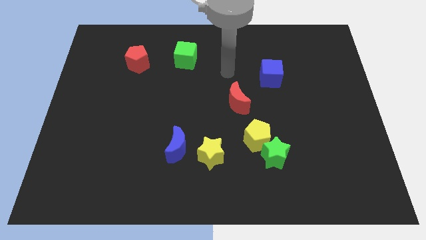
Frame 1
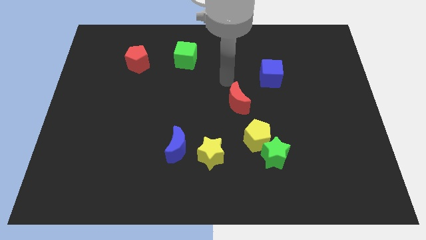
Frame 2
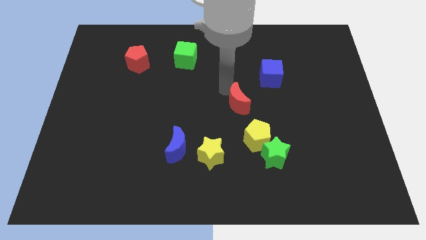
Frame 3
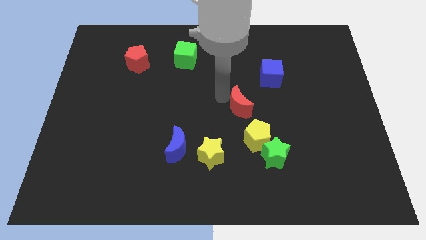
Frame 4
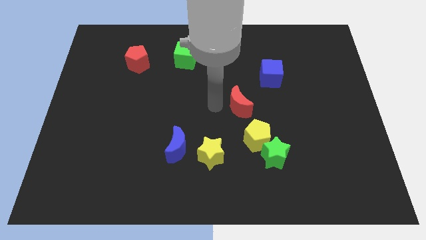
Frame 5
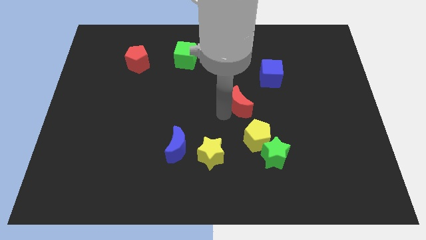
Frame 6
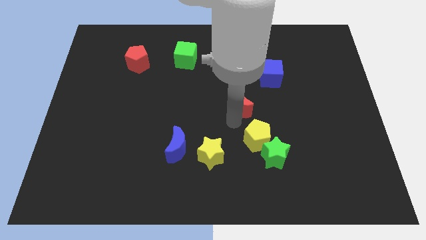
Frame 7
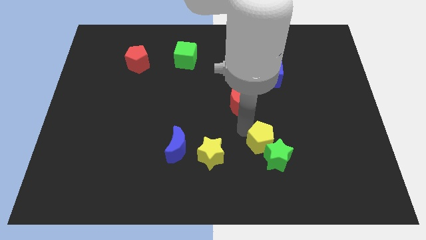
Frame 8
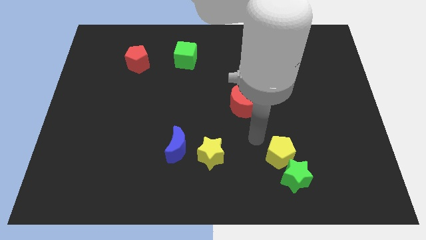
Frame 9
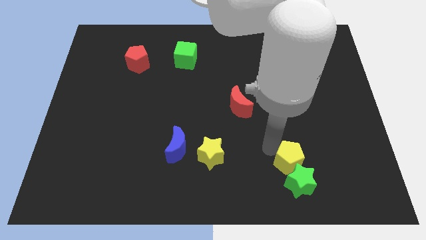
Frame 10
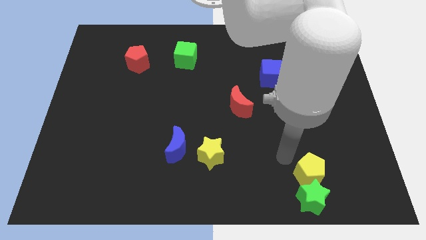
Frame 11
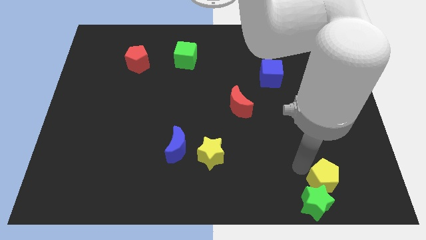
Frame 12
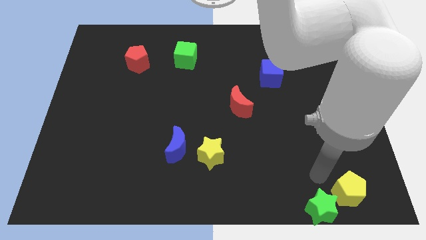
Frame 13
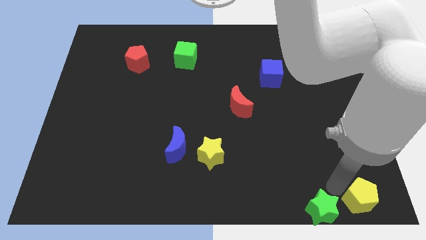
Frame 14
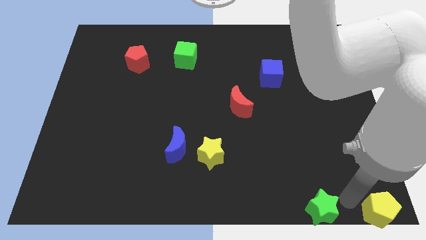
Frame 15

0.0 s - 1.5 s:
move the green star away from the yellow pentagon

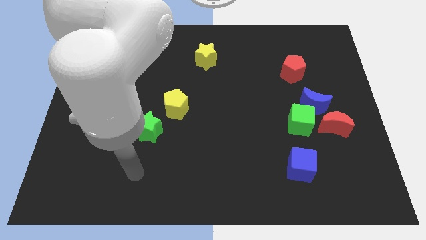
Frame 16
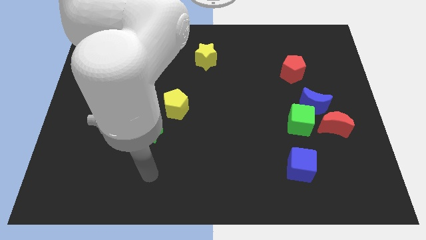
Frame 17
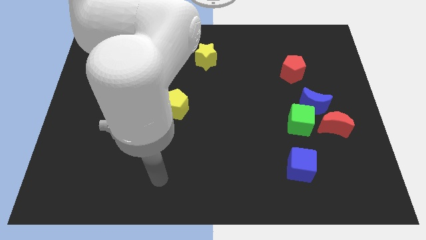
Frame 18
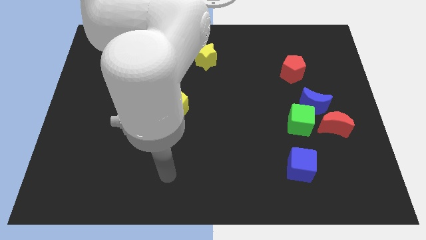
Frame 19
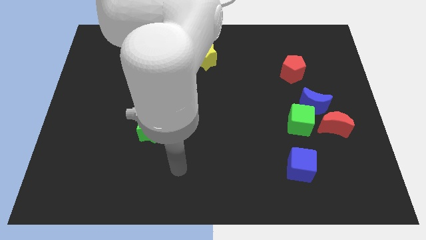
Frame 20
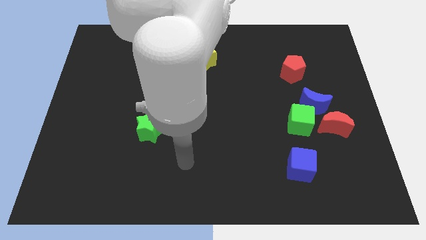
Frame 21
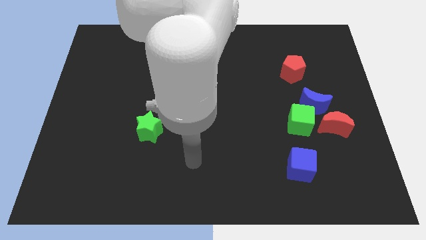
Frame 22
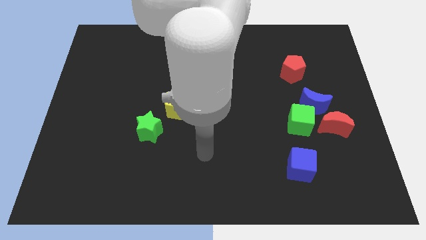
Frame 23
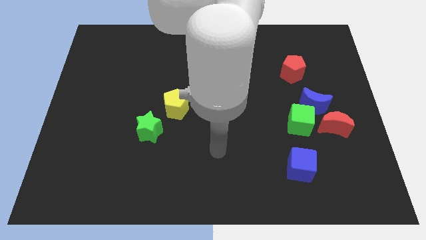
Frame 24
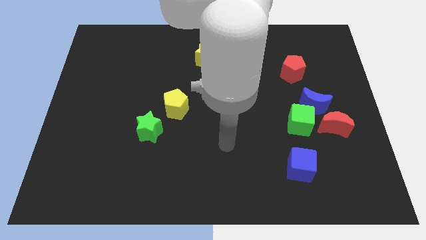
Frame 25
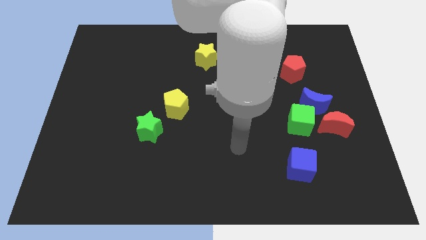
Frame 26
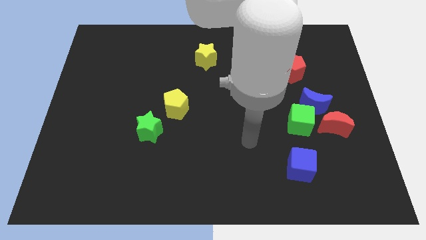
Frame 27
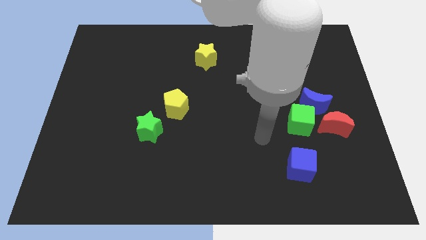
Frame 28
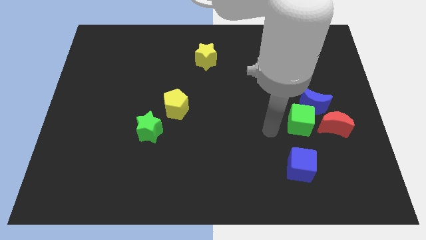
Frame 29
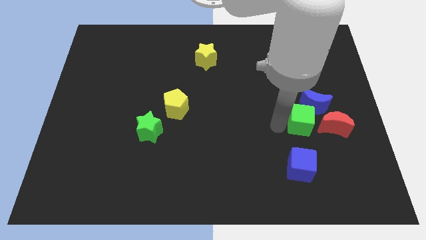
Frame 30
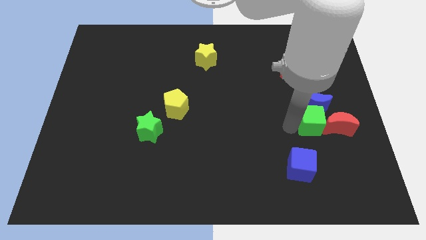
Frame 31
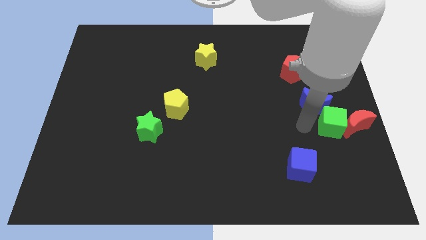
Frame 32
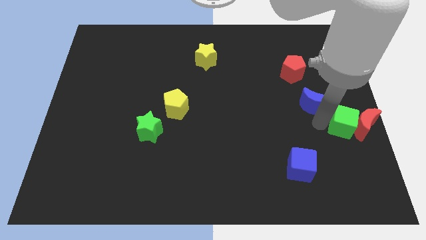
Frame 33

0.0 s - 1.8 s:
separate the blue moon from the green cube and red moon

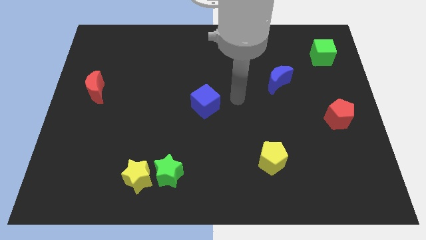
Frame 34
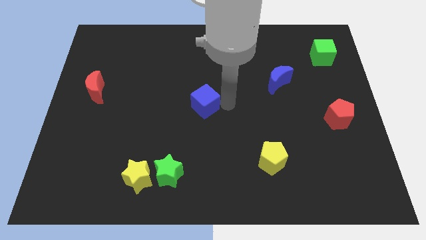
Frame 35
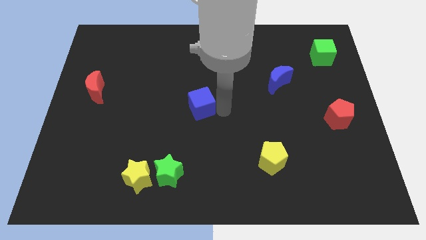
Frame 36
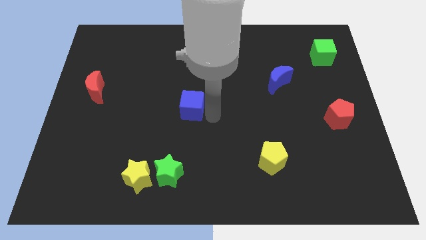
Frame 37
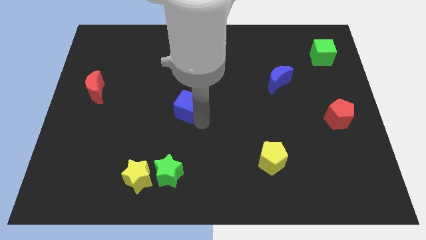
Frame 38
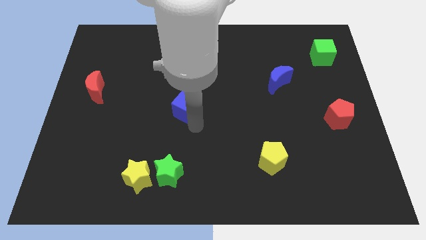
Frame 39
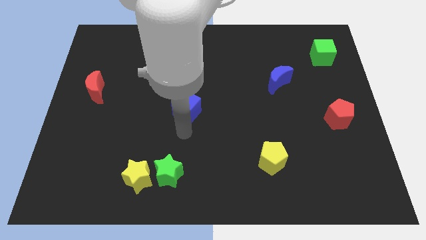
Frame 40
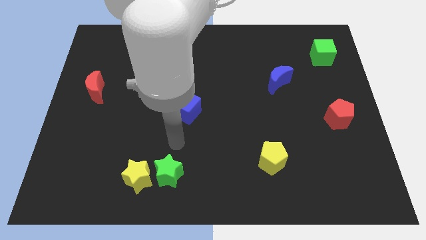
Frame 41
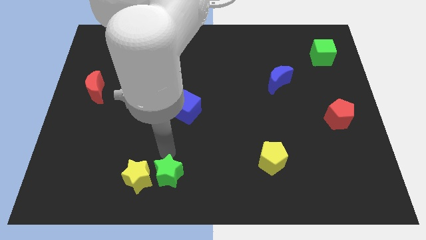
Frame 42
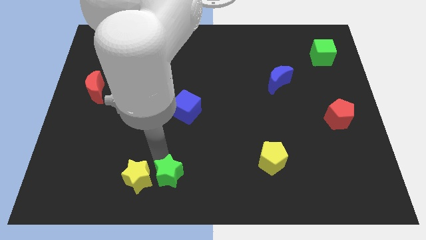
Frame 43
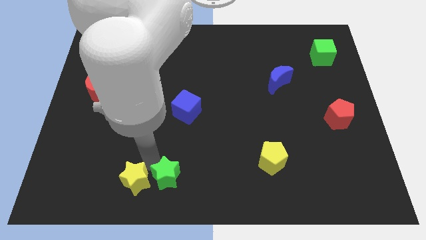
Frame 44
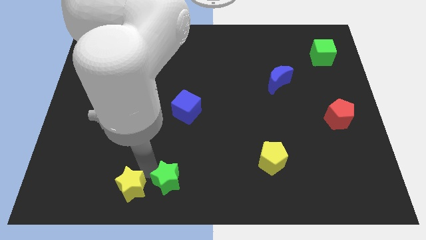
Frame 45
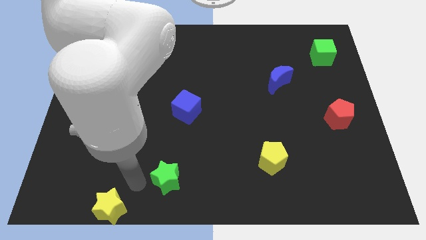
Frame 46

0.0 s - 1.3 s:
separate the green star from the yellow star

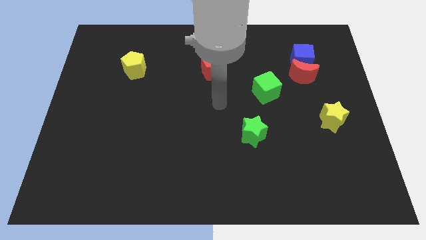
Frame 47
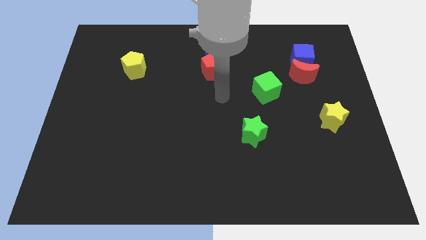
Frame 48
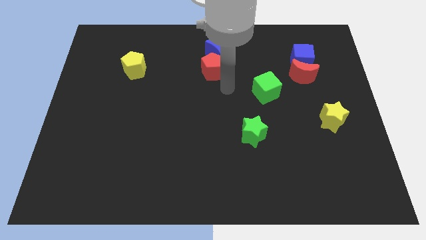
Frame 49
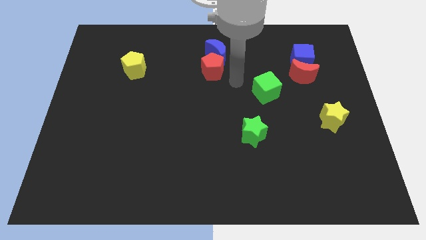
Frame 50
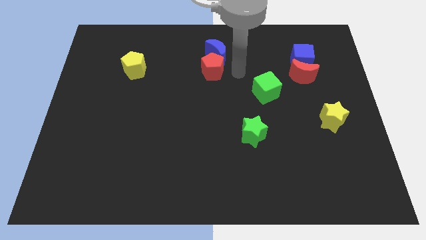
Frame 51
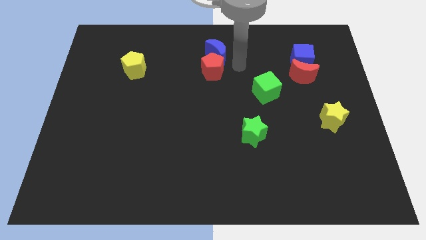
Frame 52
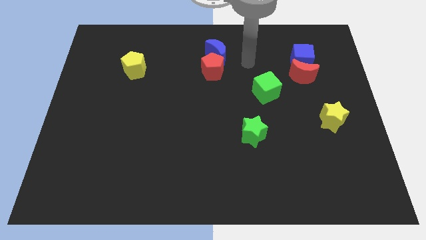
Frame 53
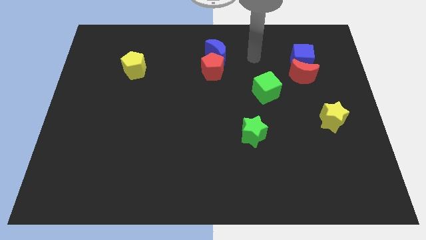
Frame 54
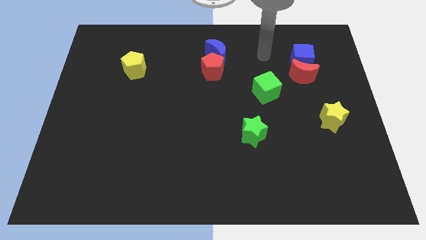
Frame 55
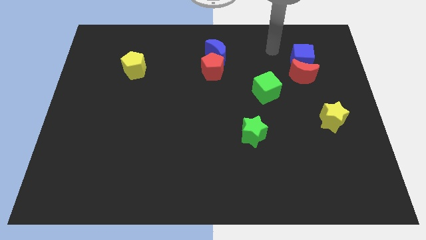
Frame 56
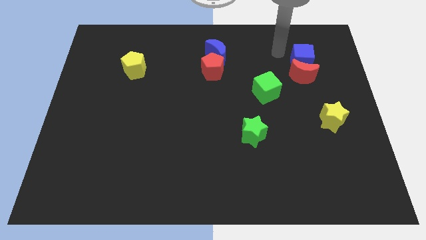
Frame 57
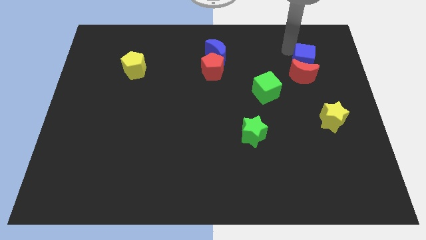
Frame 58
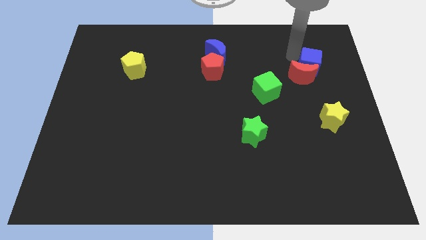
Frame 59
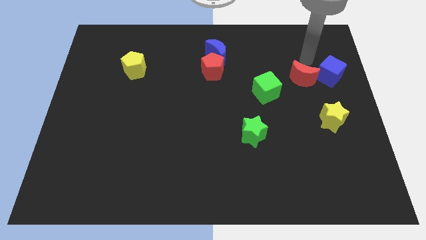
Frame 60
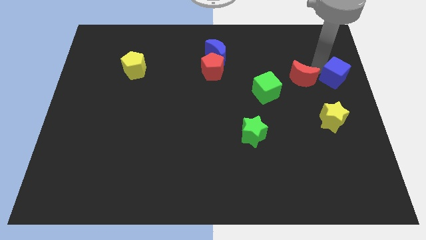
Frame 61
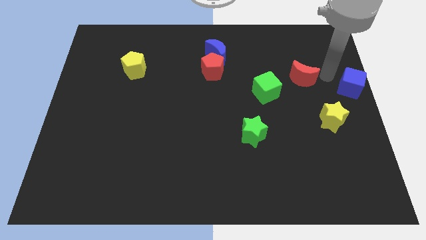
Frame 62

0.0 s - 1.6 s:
separate the red moon from the blue cube

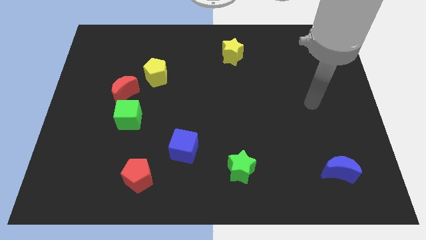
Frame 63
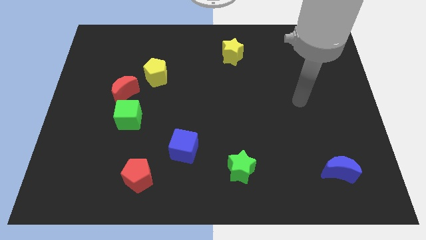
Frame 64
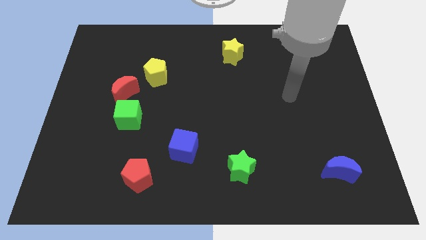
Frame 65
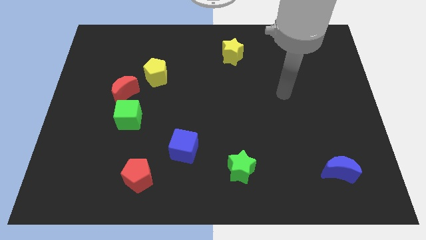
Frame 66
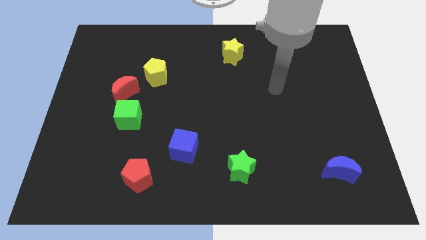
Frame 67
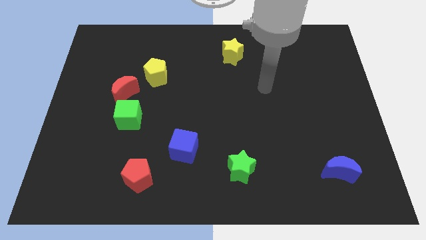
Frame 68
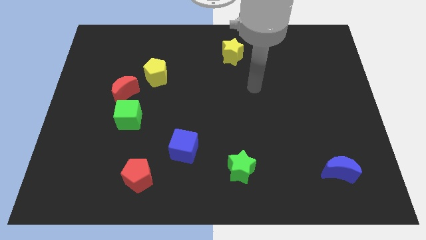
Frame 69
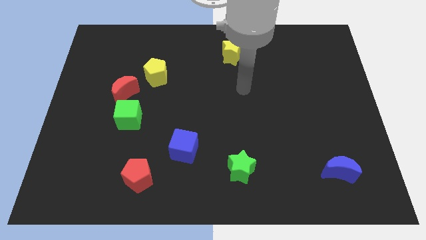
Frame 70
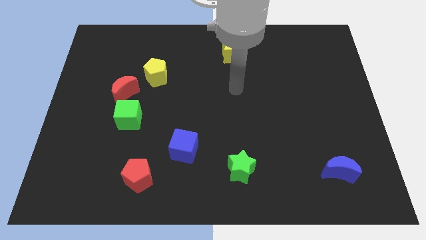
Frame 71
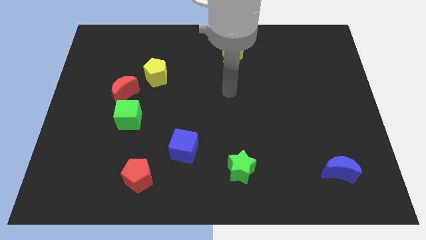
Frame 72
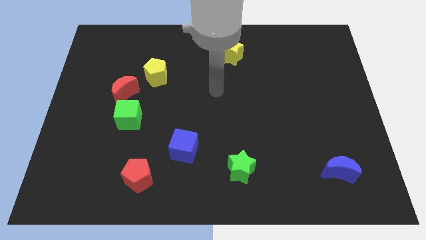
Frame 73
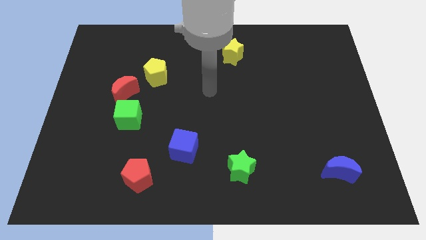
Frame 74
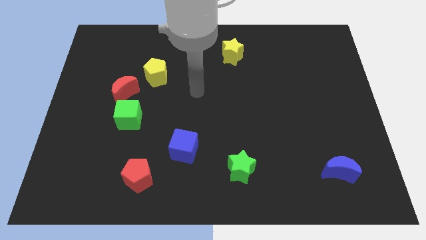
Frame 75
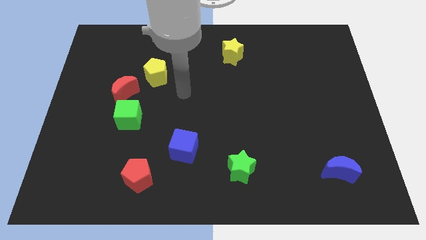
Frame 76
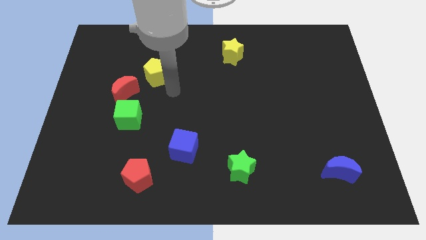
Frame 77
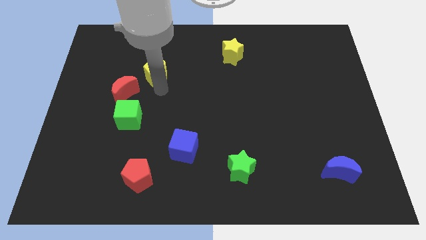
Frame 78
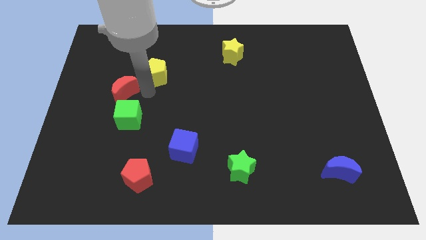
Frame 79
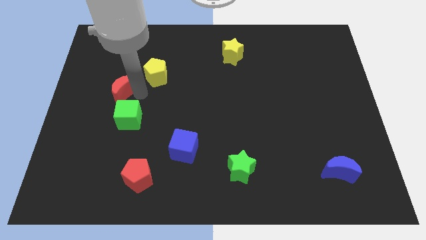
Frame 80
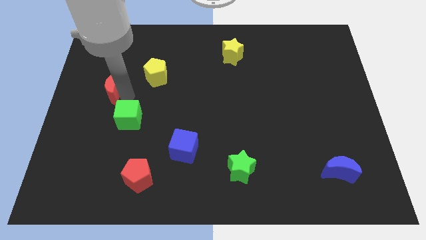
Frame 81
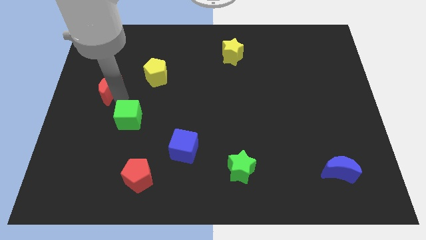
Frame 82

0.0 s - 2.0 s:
move the green cube away from the red moon

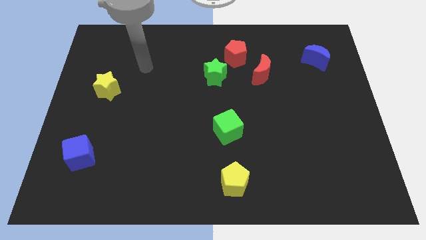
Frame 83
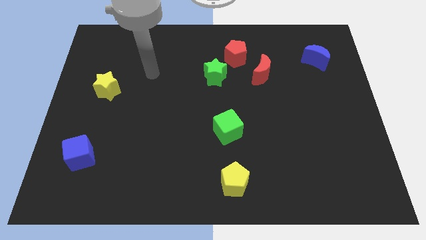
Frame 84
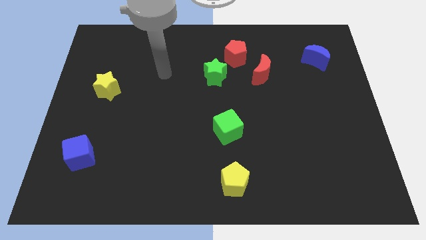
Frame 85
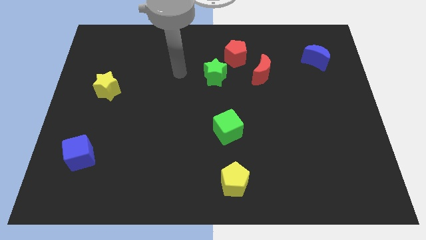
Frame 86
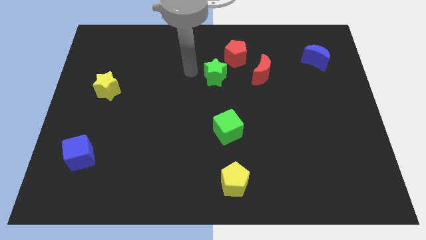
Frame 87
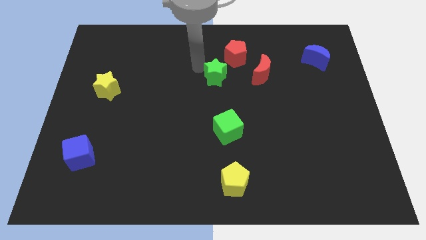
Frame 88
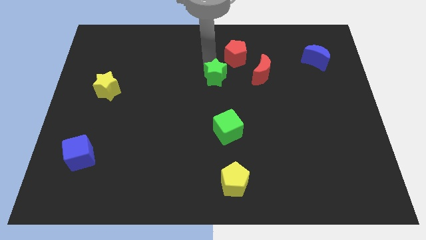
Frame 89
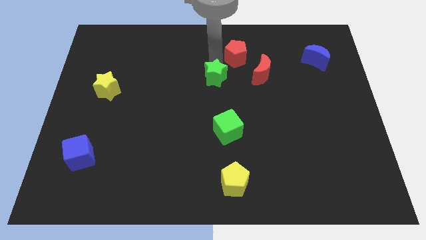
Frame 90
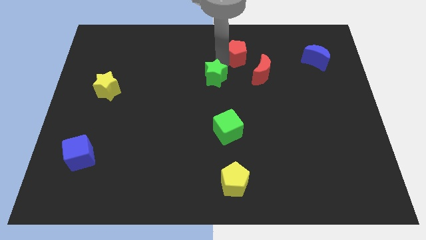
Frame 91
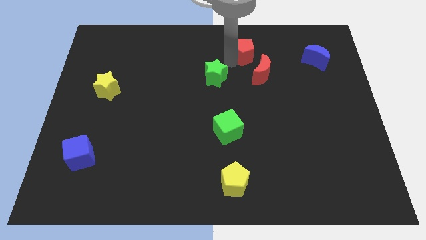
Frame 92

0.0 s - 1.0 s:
pull the green star apart from the red pentagon
